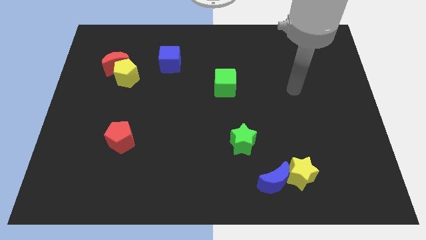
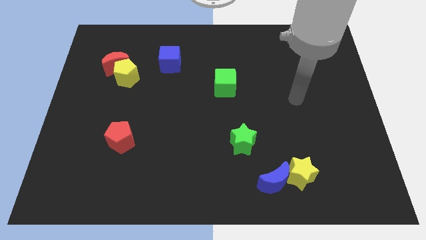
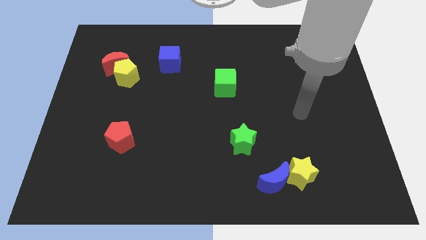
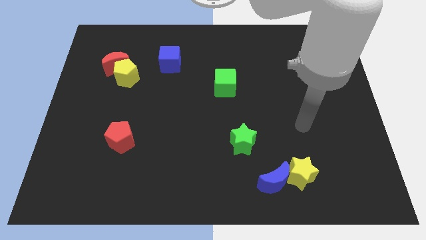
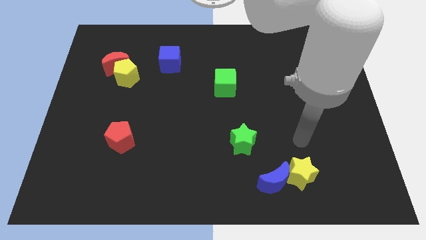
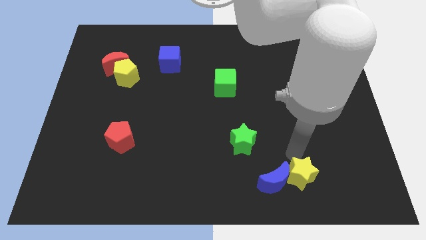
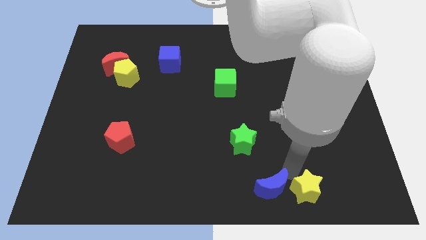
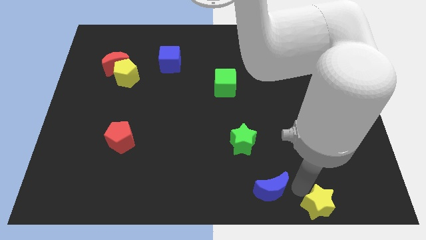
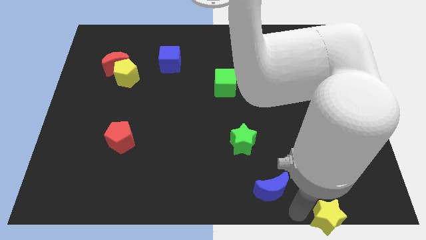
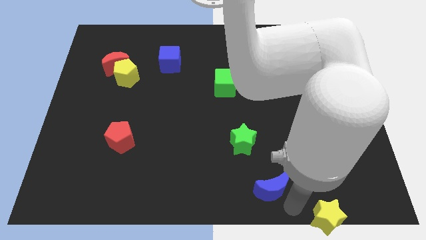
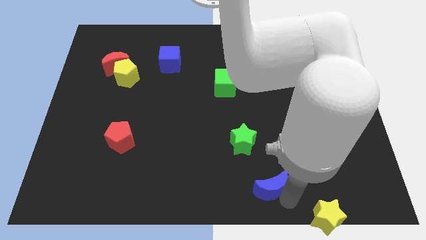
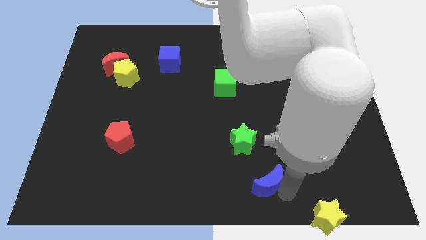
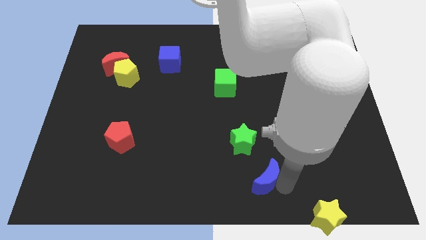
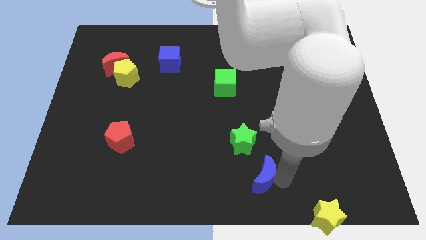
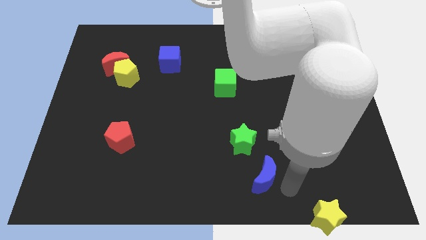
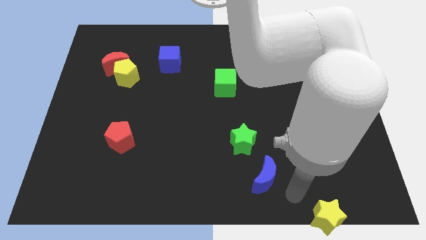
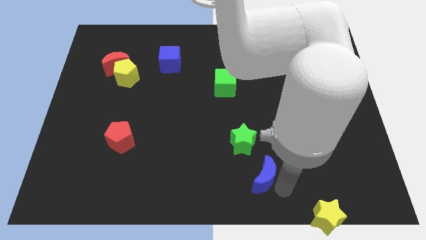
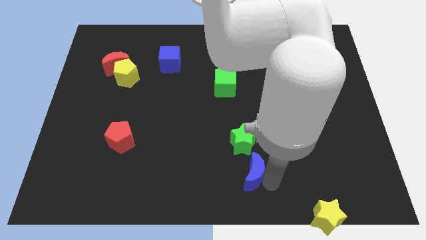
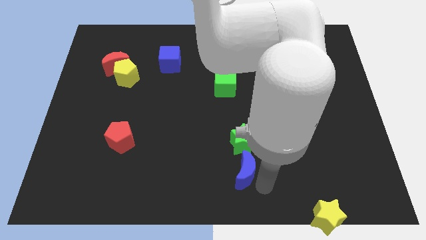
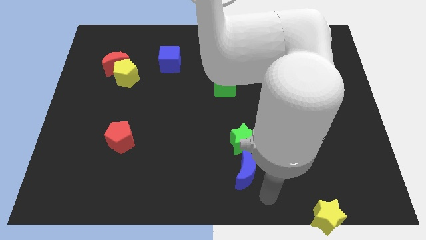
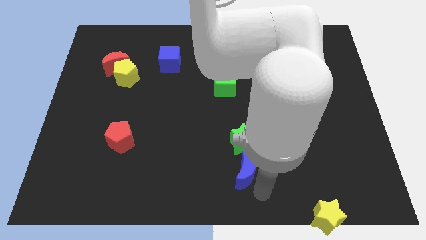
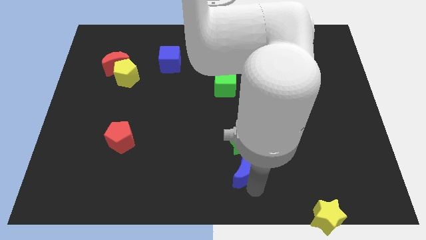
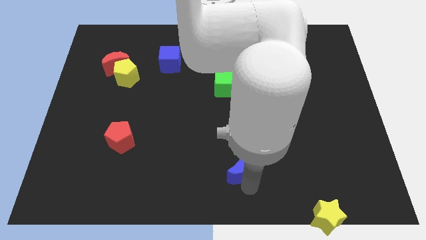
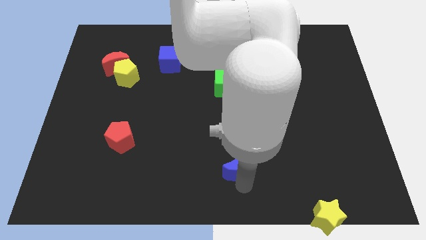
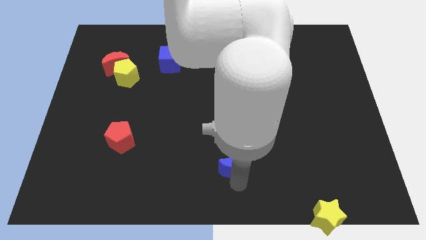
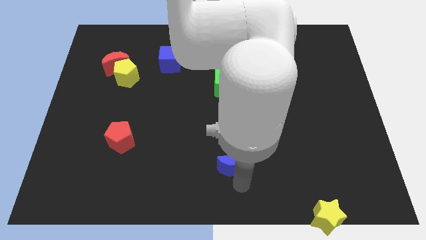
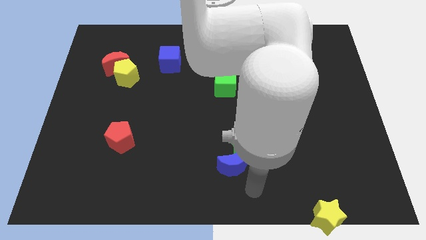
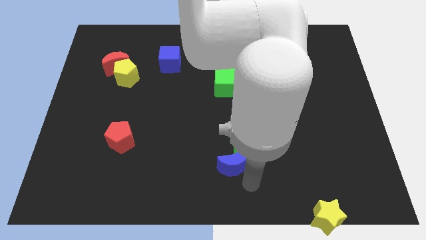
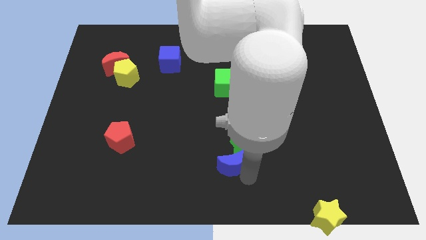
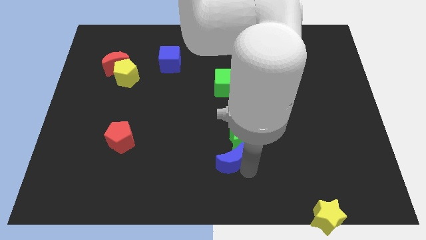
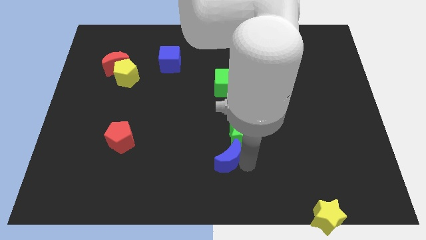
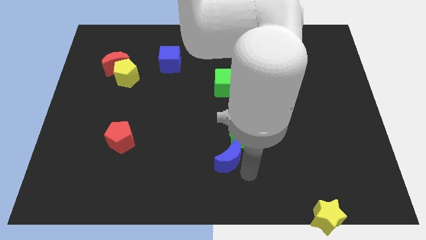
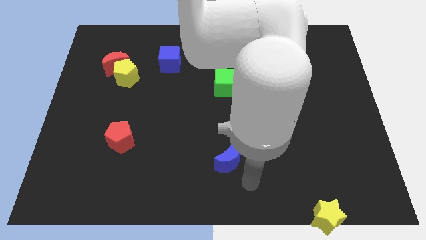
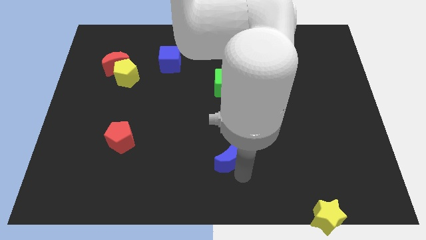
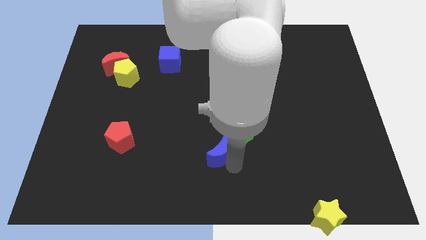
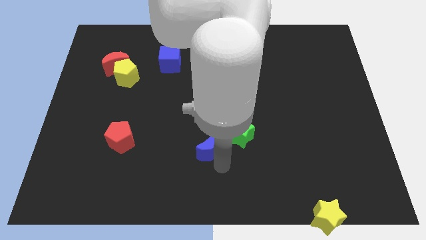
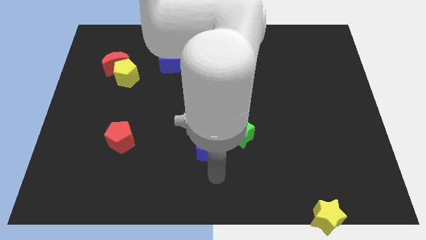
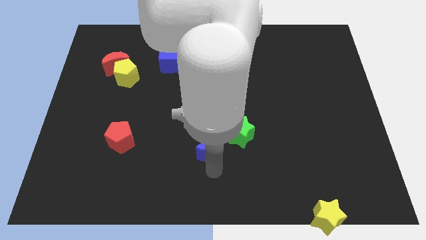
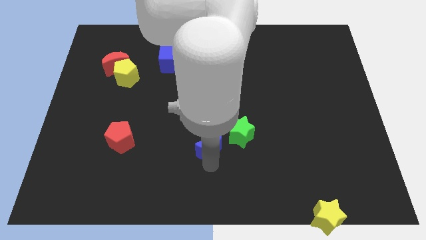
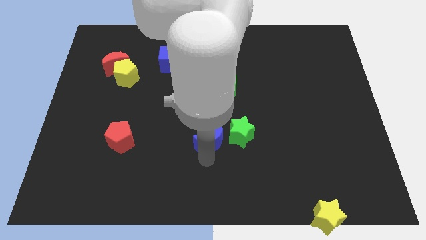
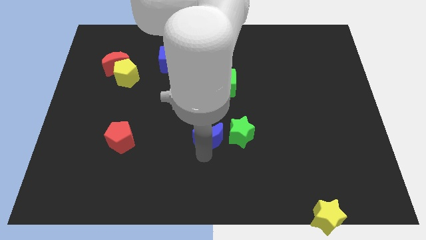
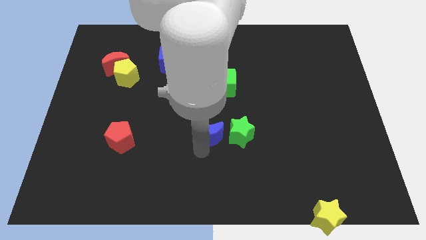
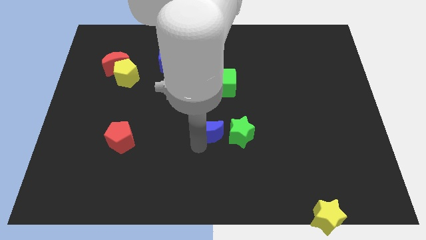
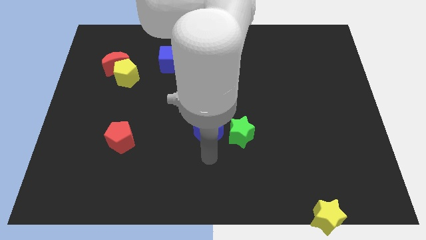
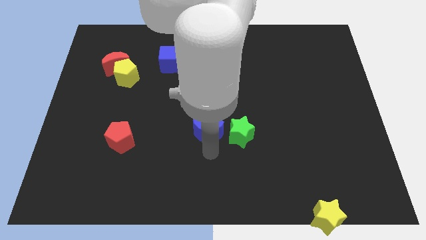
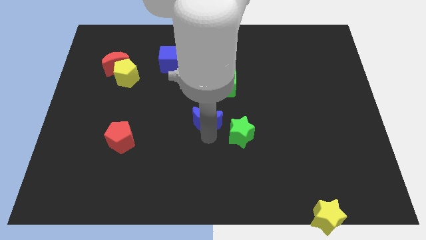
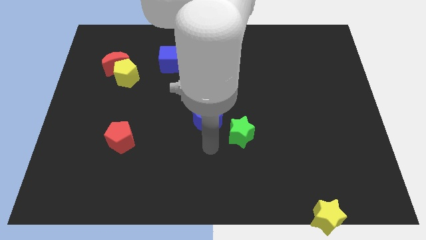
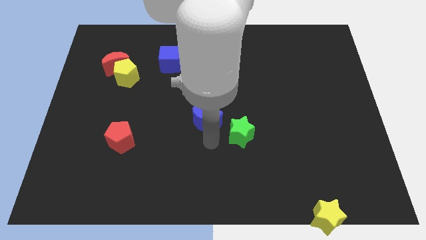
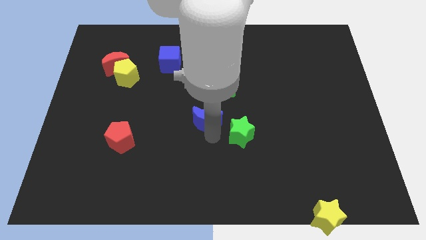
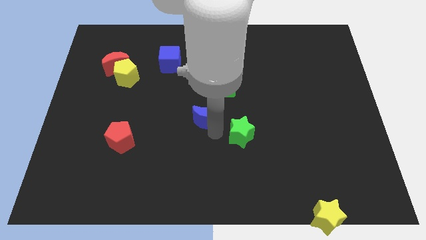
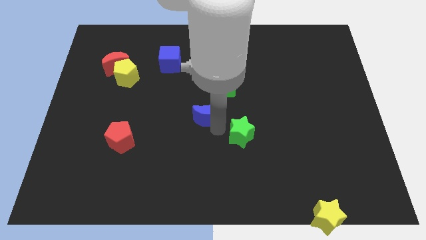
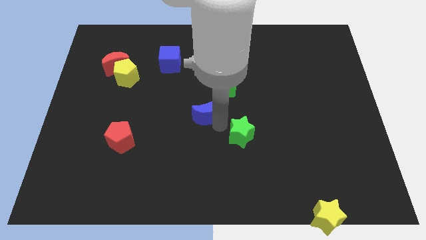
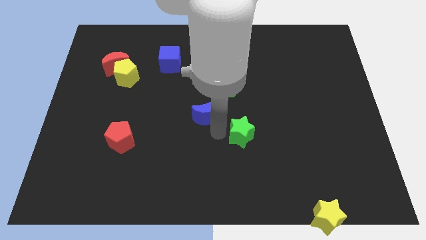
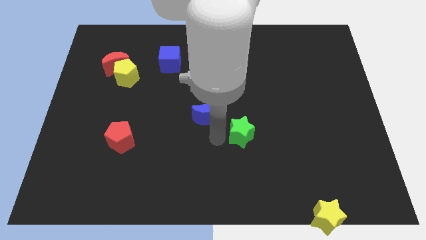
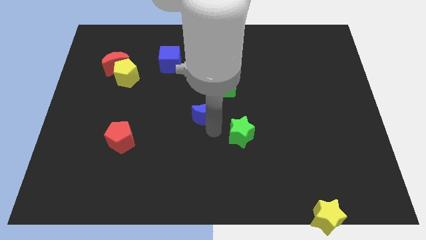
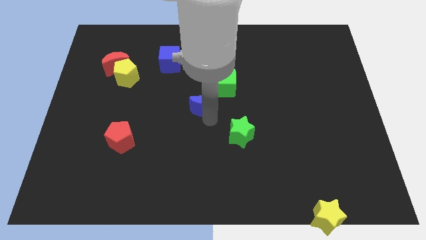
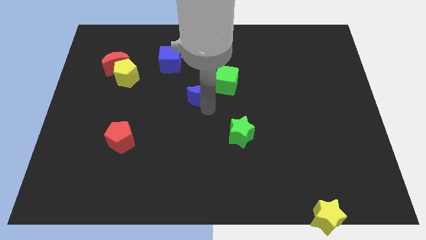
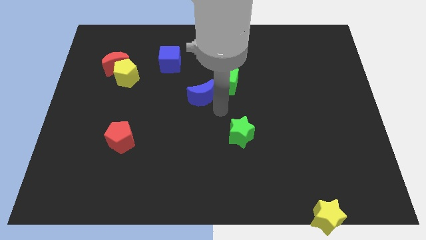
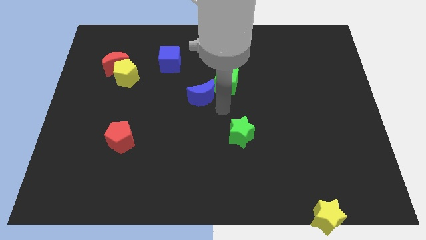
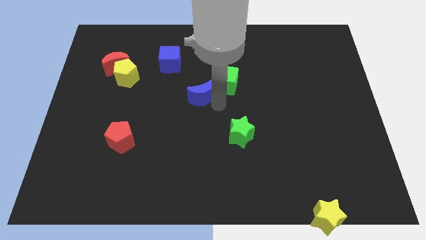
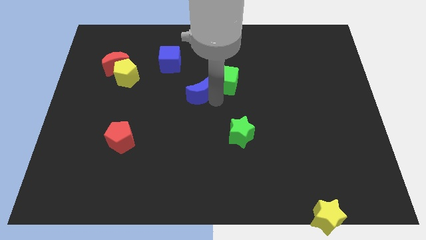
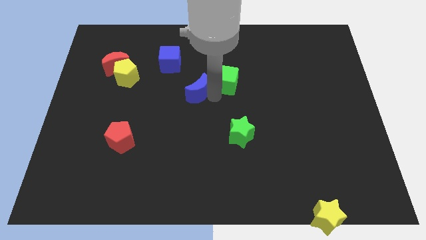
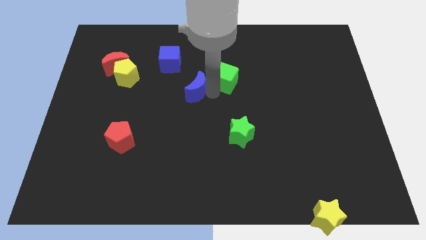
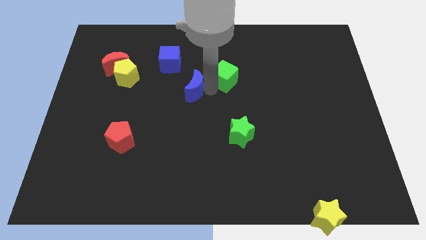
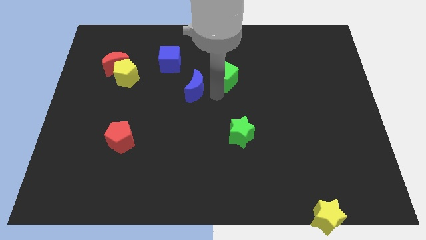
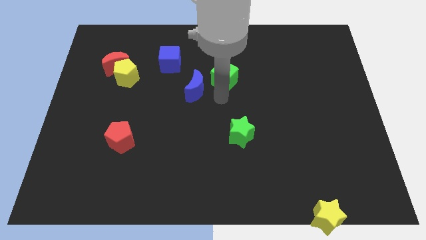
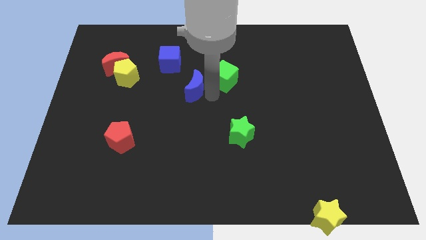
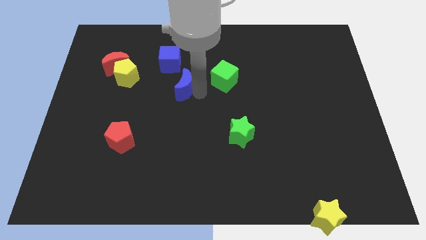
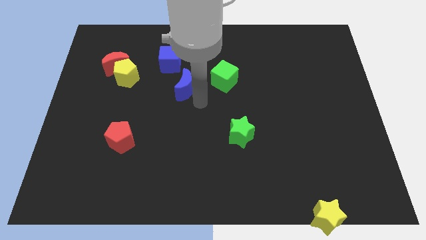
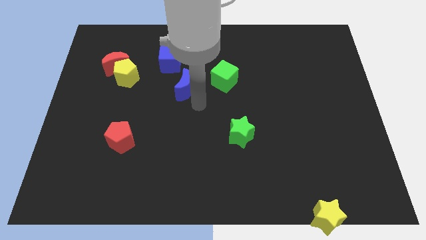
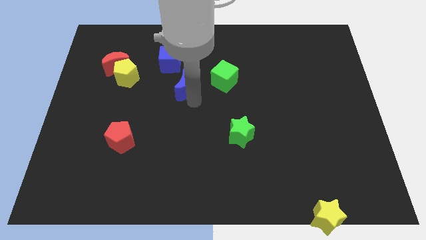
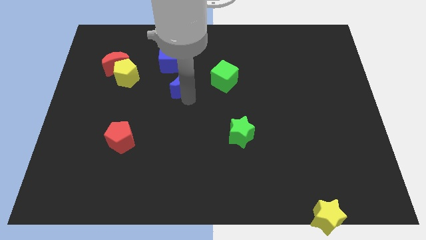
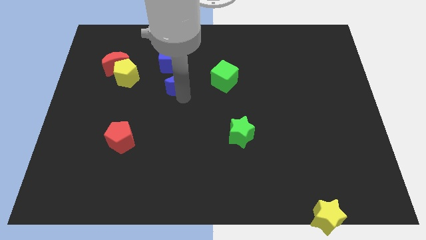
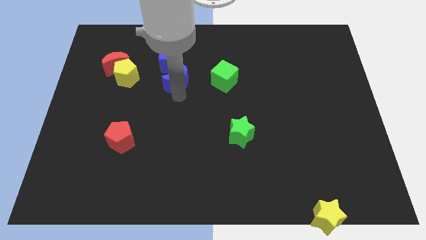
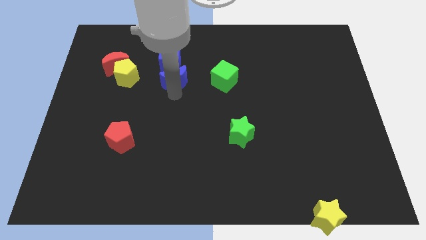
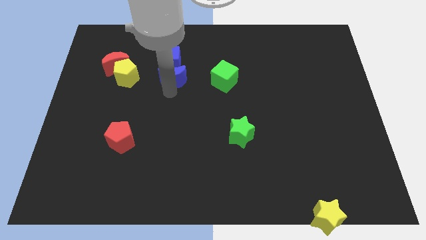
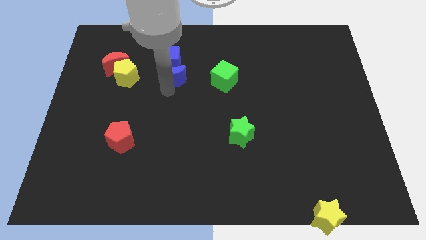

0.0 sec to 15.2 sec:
put the blue moon close to the blue cube
